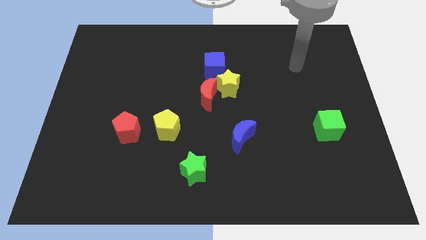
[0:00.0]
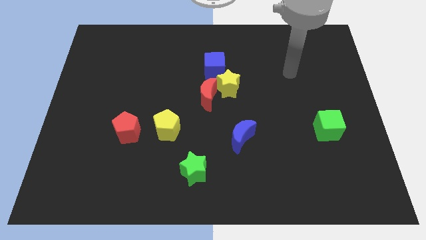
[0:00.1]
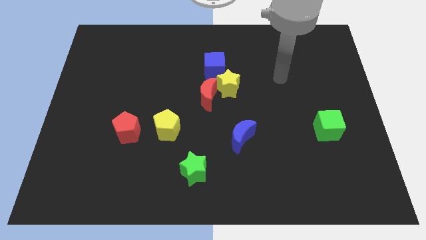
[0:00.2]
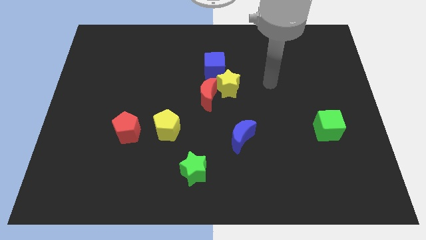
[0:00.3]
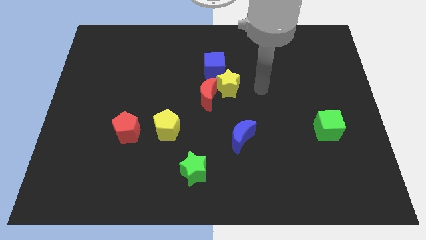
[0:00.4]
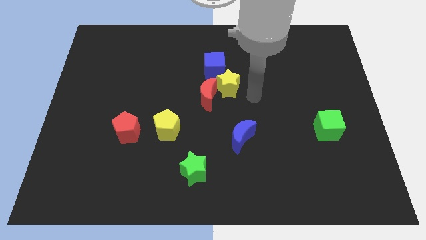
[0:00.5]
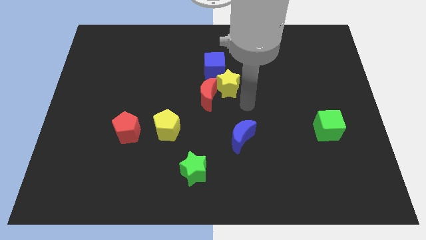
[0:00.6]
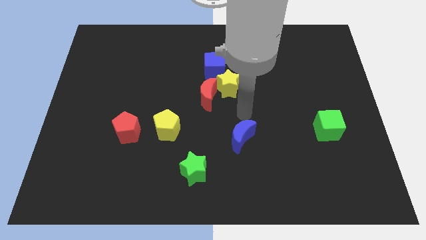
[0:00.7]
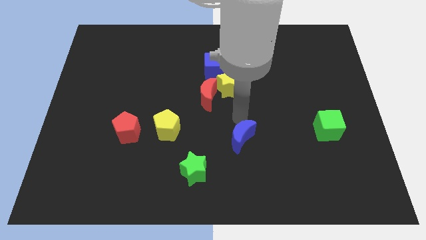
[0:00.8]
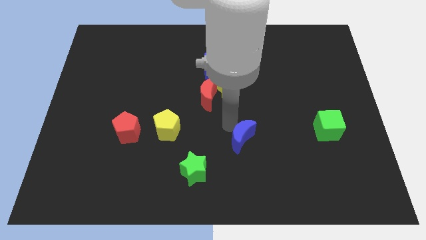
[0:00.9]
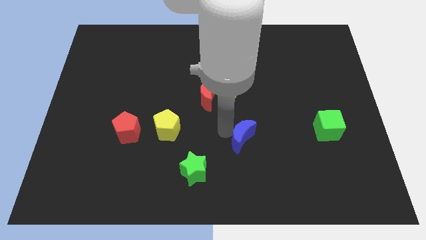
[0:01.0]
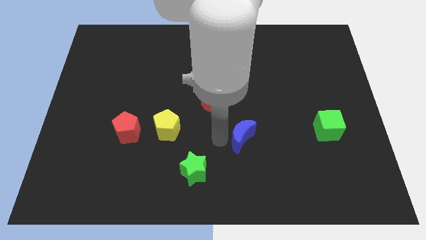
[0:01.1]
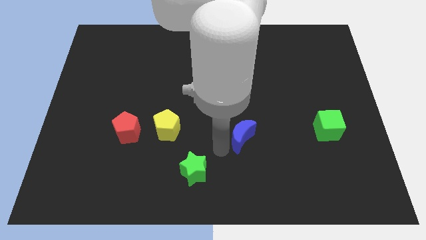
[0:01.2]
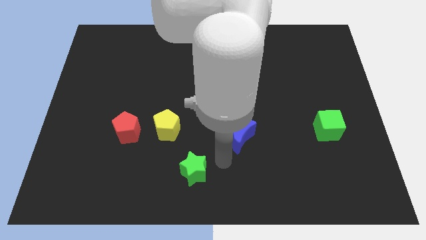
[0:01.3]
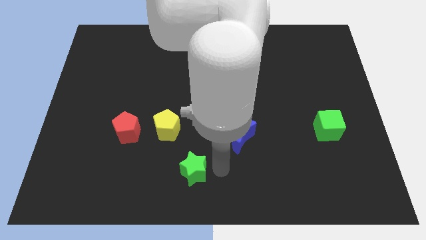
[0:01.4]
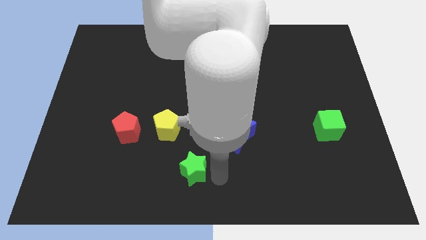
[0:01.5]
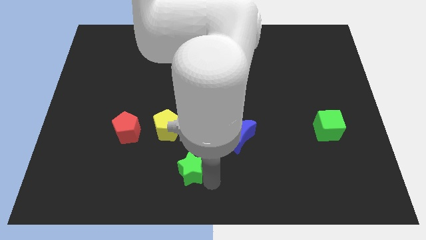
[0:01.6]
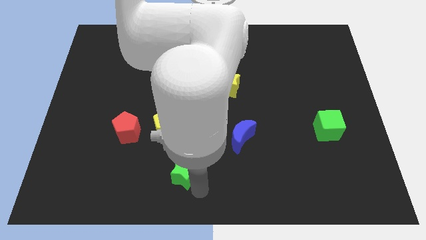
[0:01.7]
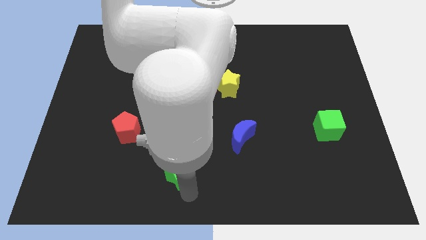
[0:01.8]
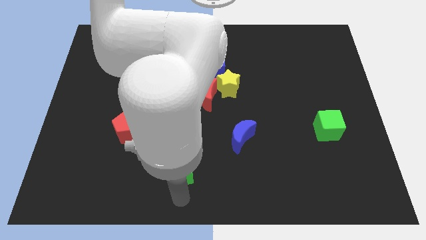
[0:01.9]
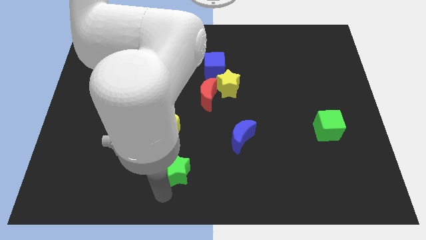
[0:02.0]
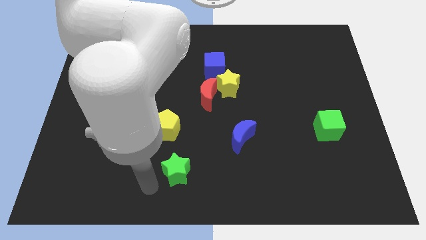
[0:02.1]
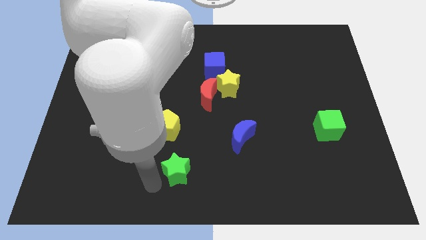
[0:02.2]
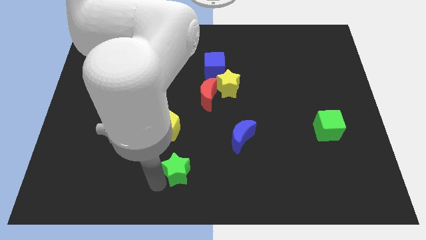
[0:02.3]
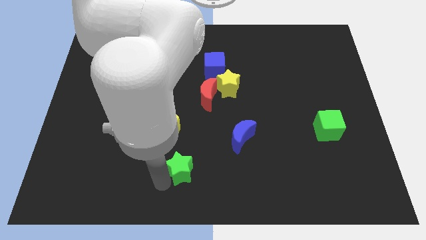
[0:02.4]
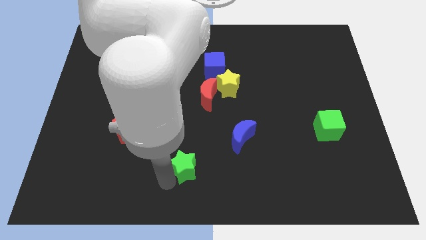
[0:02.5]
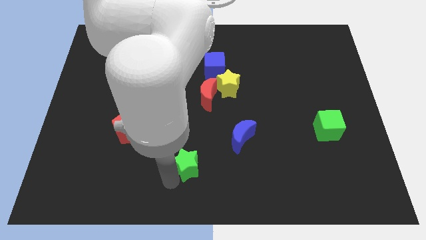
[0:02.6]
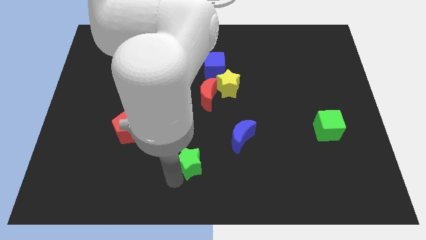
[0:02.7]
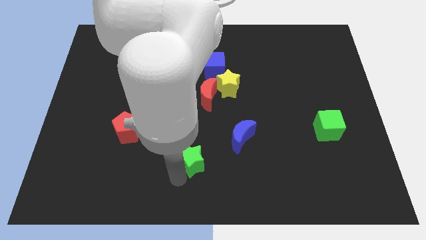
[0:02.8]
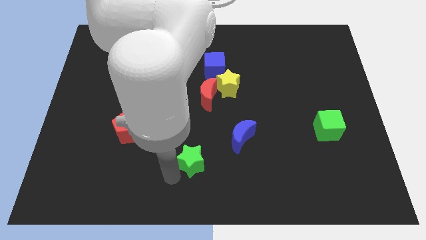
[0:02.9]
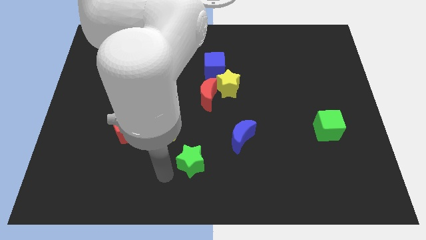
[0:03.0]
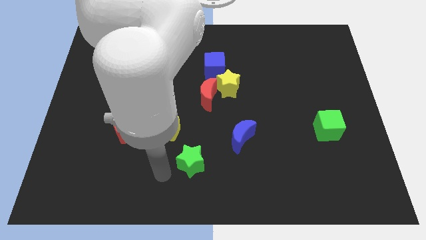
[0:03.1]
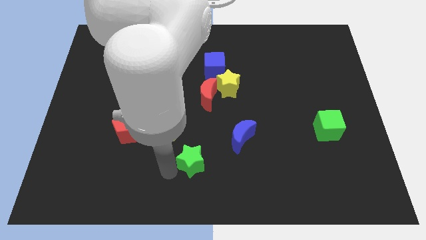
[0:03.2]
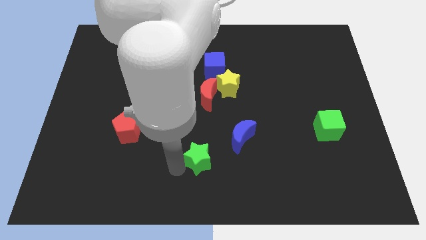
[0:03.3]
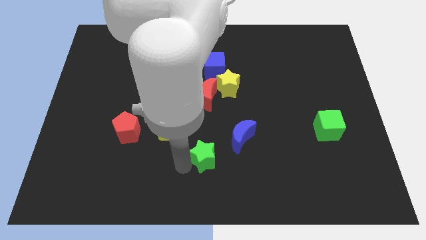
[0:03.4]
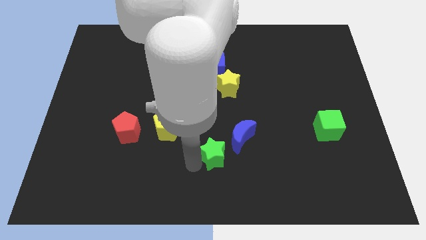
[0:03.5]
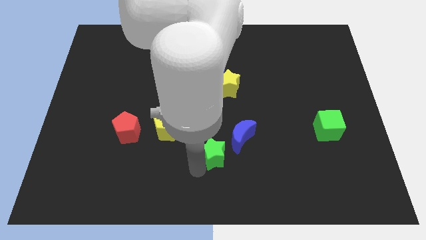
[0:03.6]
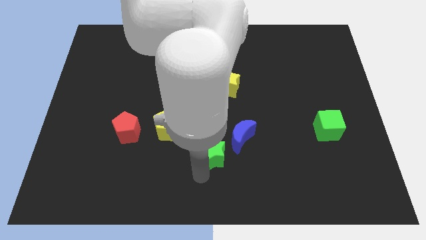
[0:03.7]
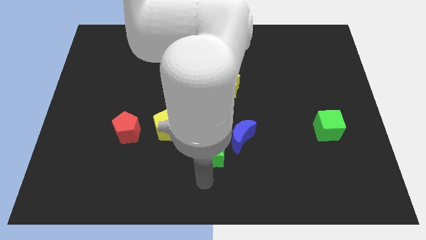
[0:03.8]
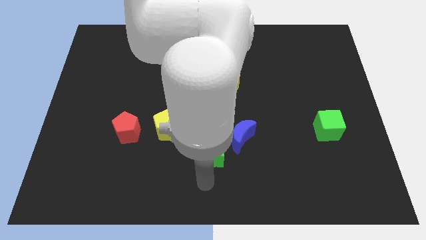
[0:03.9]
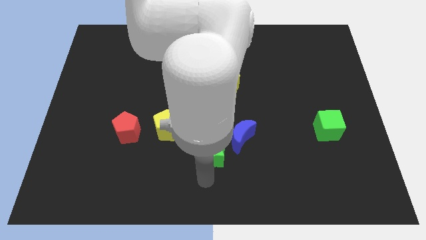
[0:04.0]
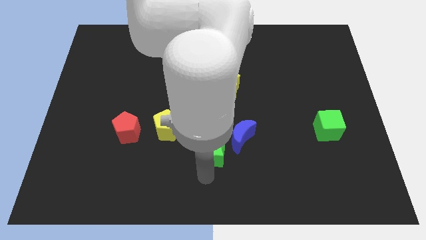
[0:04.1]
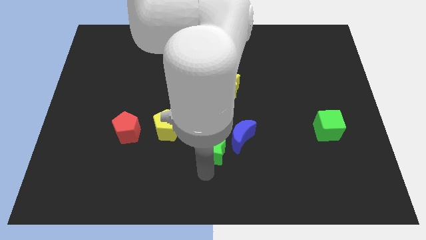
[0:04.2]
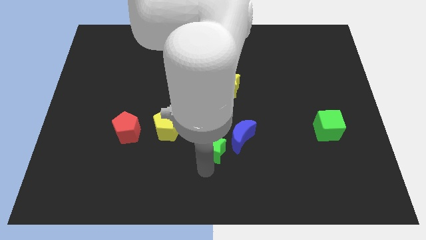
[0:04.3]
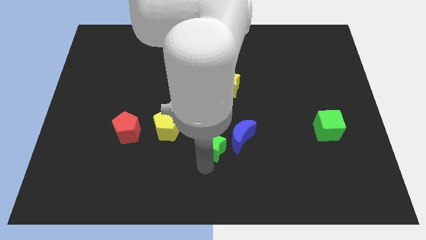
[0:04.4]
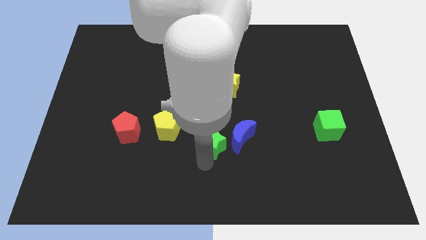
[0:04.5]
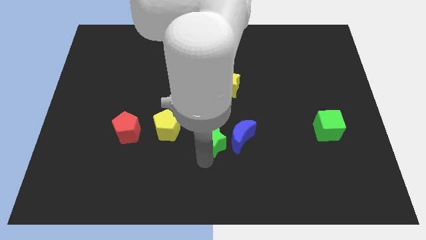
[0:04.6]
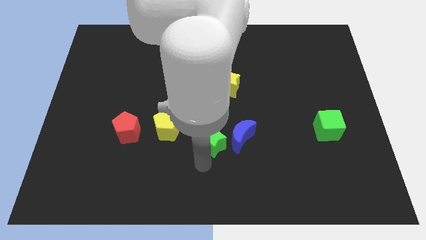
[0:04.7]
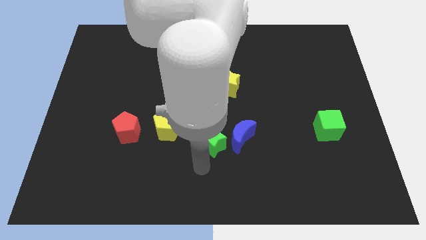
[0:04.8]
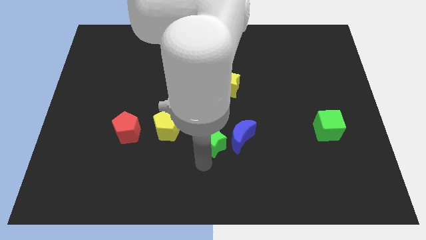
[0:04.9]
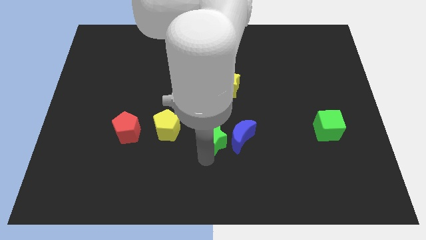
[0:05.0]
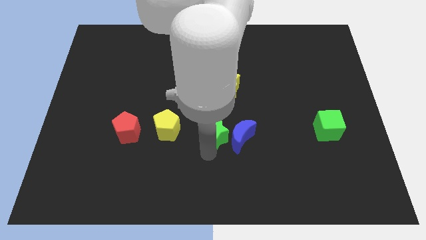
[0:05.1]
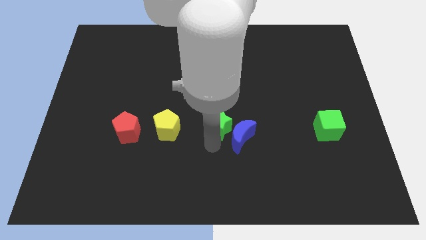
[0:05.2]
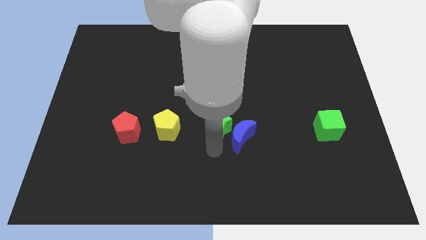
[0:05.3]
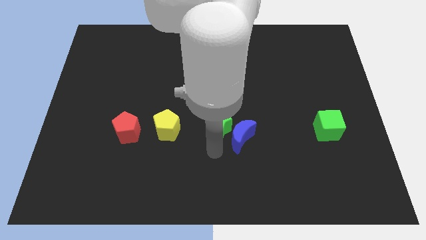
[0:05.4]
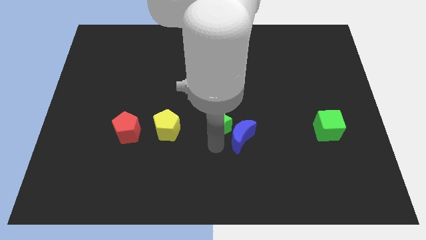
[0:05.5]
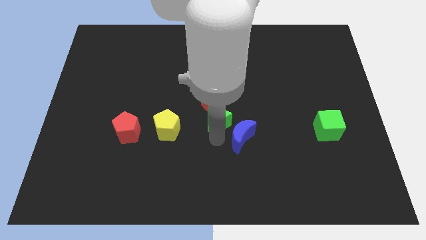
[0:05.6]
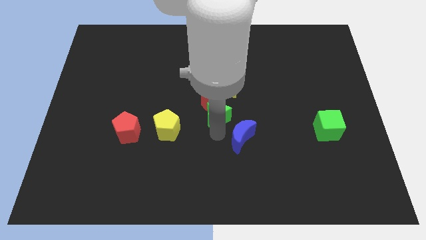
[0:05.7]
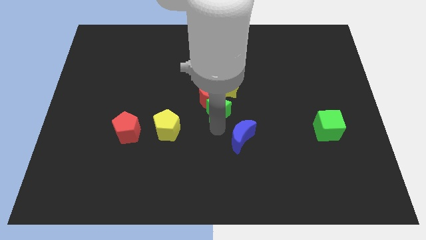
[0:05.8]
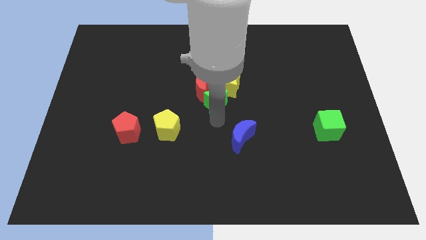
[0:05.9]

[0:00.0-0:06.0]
push the green star towards the yellow star

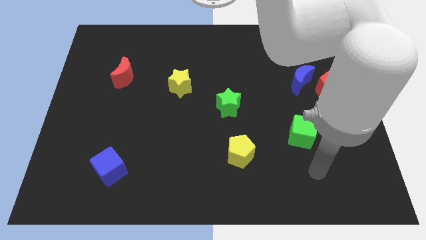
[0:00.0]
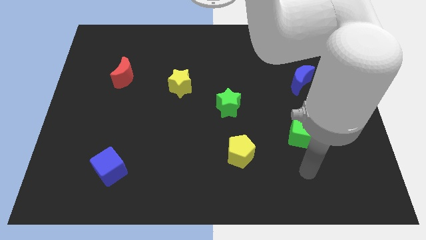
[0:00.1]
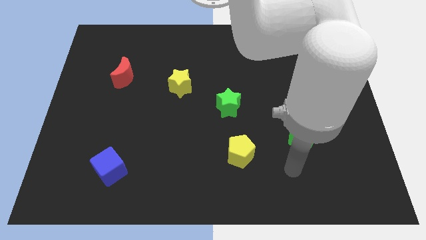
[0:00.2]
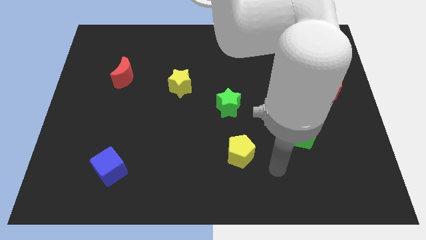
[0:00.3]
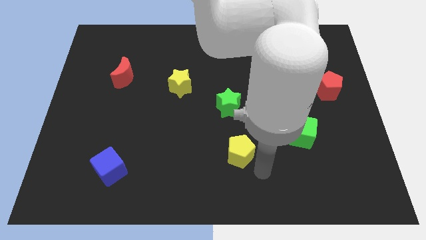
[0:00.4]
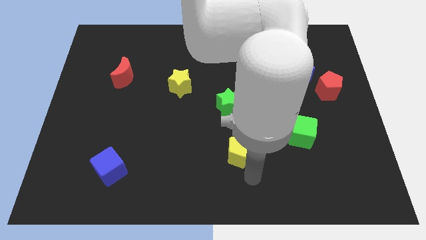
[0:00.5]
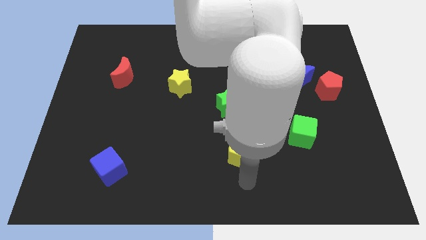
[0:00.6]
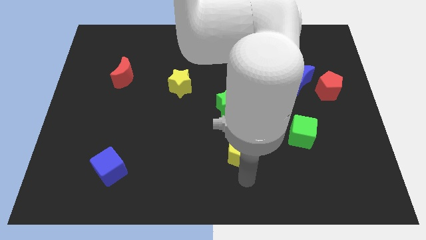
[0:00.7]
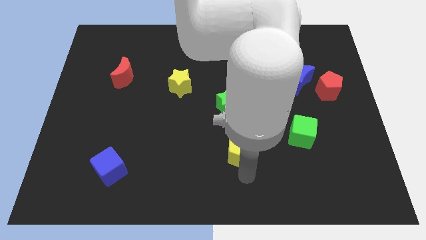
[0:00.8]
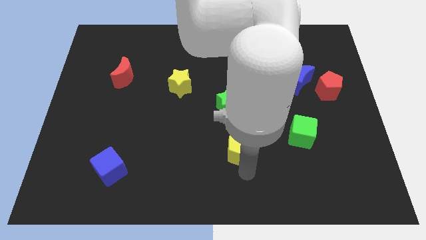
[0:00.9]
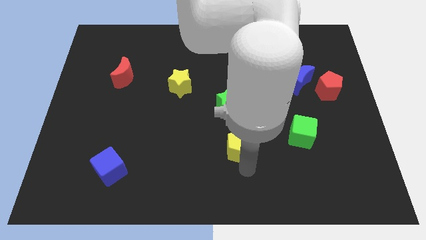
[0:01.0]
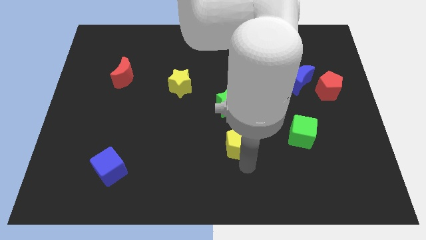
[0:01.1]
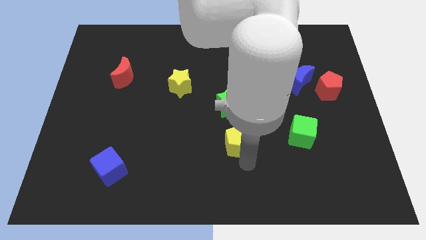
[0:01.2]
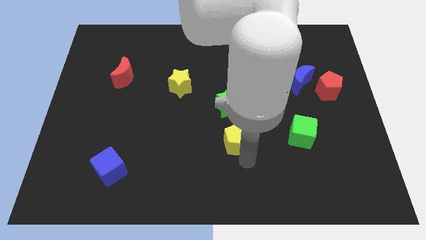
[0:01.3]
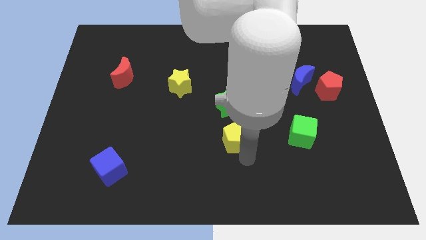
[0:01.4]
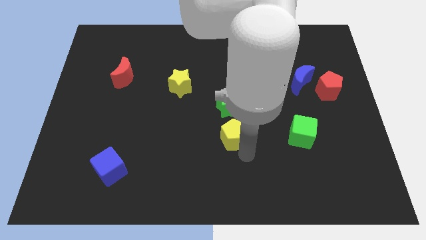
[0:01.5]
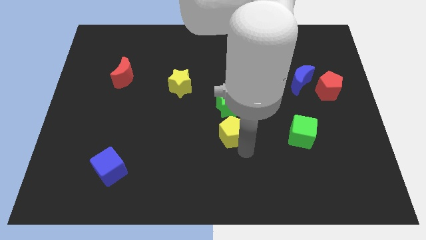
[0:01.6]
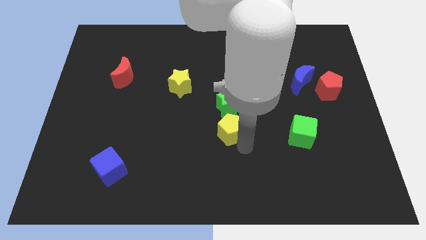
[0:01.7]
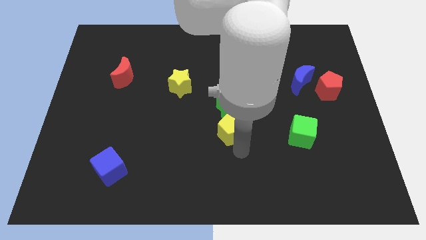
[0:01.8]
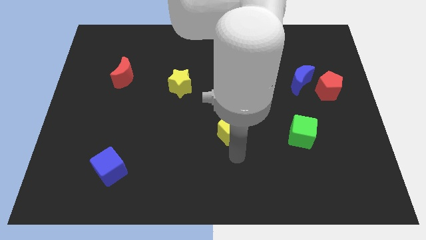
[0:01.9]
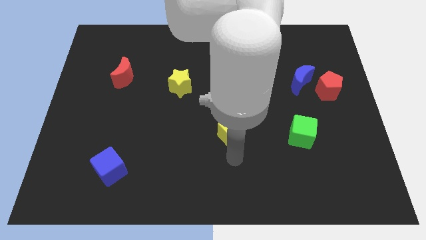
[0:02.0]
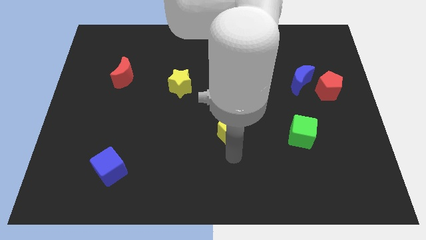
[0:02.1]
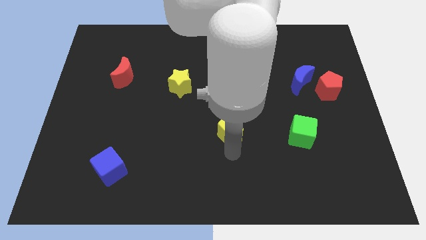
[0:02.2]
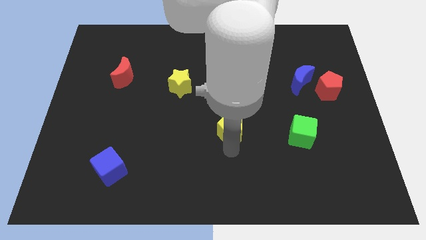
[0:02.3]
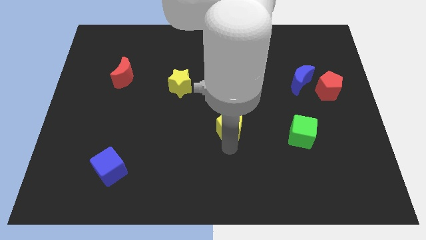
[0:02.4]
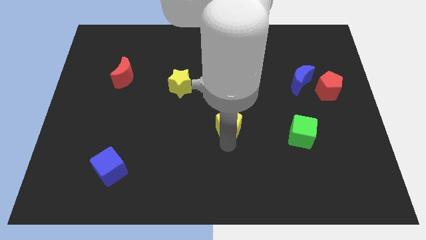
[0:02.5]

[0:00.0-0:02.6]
push the yellow pentagon next to the green star
